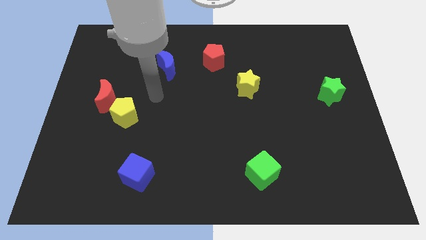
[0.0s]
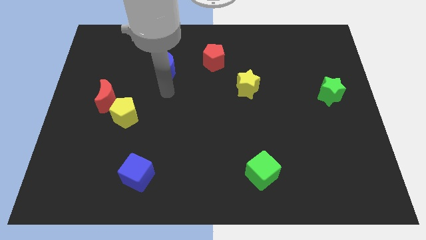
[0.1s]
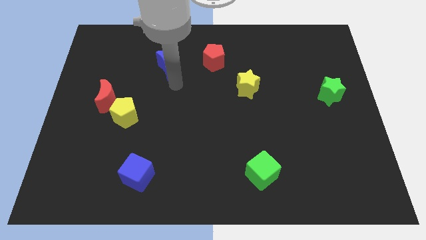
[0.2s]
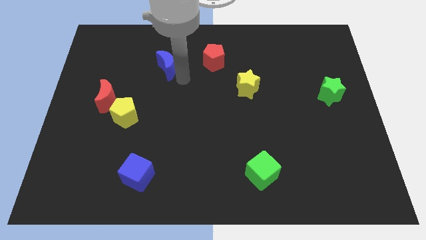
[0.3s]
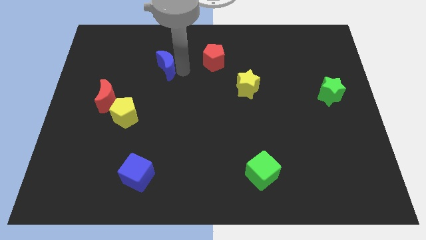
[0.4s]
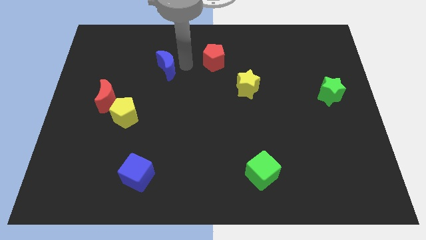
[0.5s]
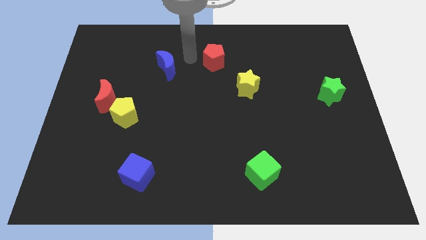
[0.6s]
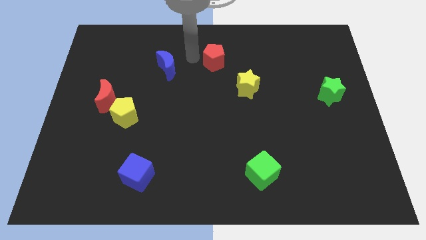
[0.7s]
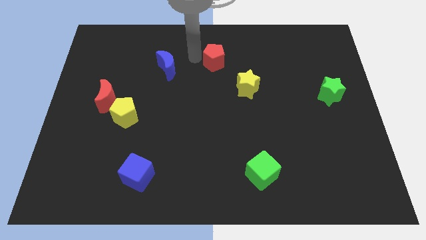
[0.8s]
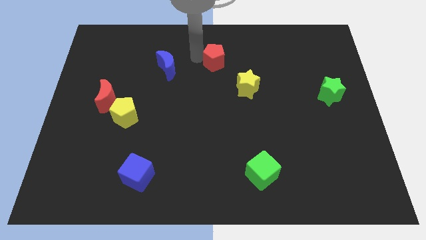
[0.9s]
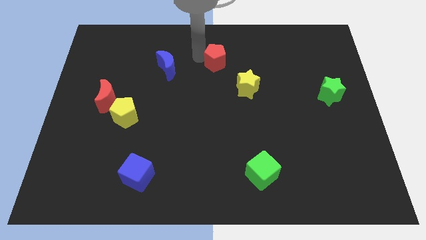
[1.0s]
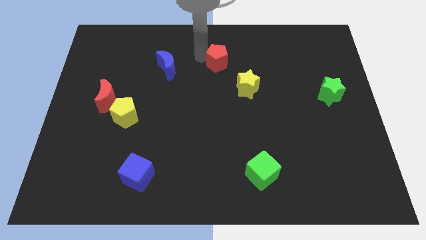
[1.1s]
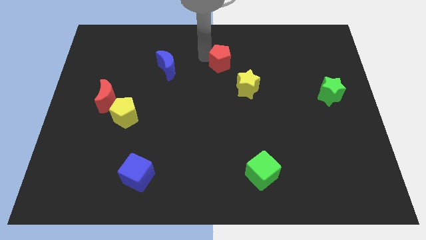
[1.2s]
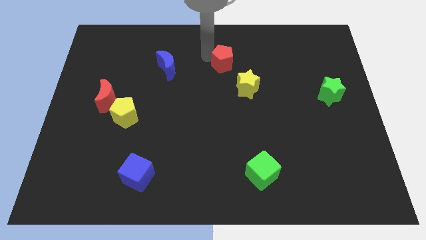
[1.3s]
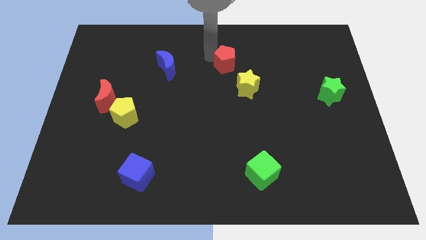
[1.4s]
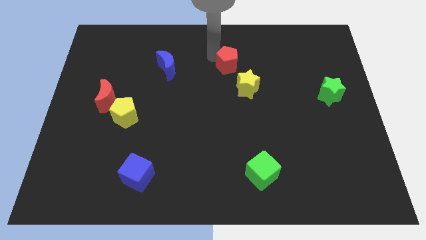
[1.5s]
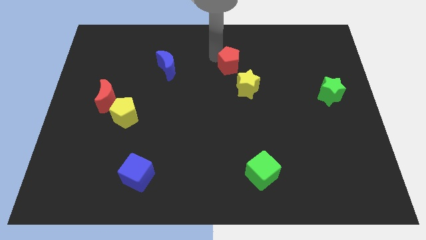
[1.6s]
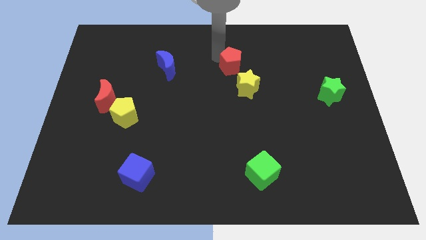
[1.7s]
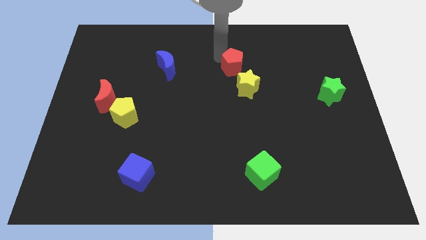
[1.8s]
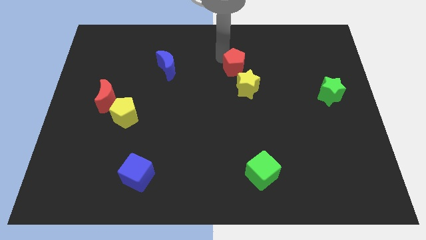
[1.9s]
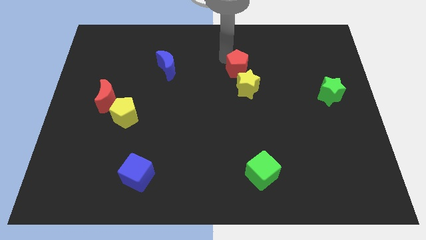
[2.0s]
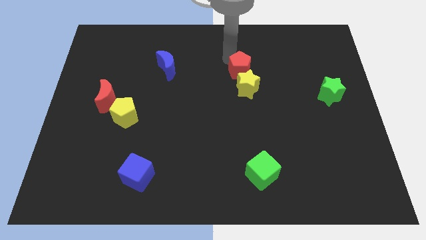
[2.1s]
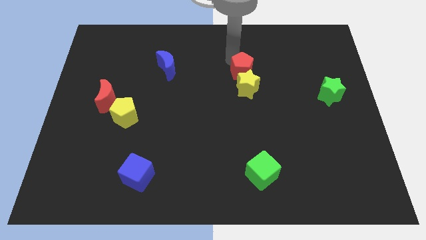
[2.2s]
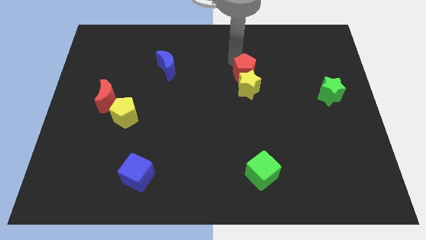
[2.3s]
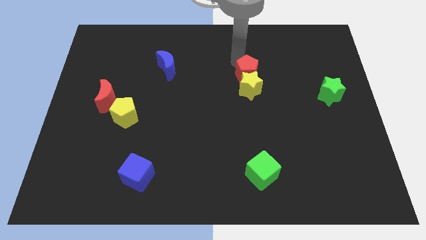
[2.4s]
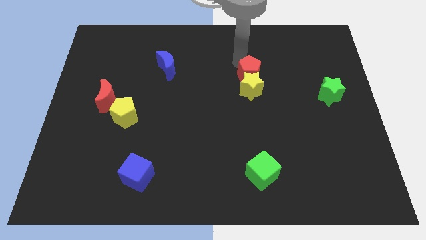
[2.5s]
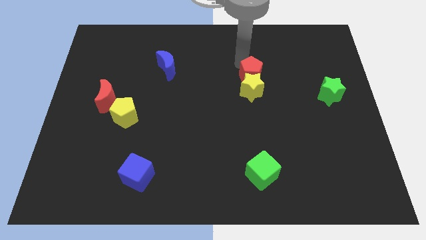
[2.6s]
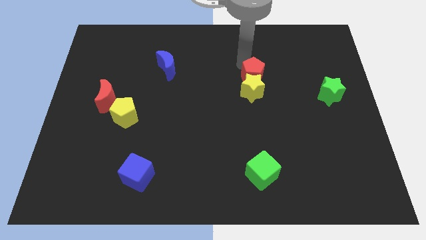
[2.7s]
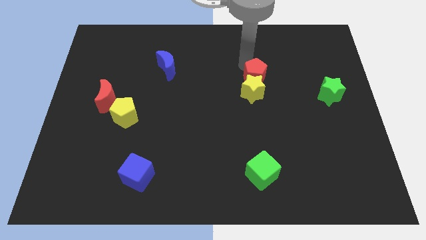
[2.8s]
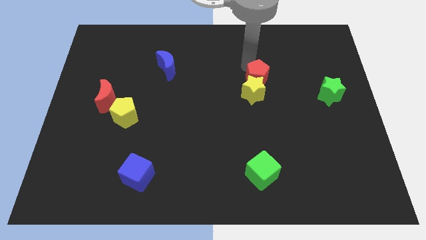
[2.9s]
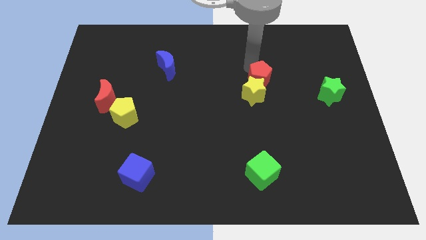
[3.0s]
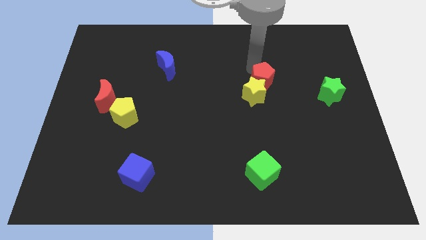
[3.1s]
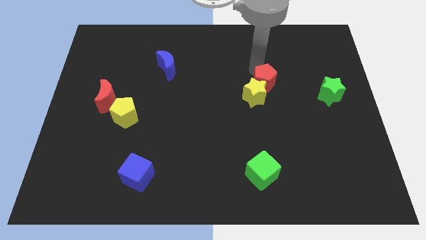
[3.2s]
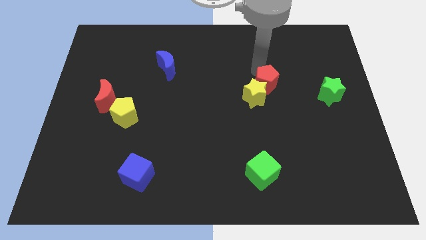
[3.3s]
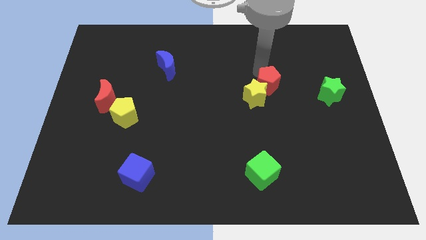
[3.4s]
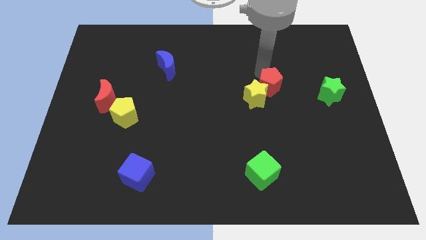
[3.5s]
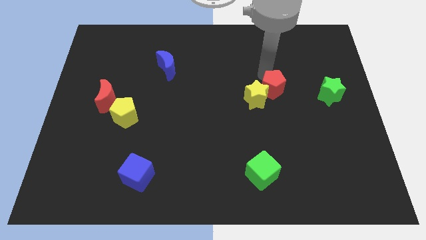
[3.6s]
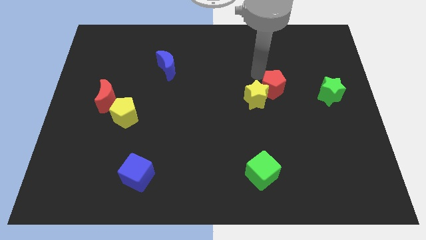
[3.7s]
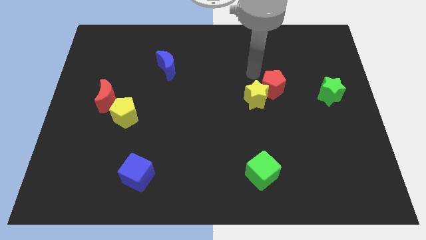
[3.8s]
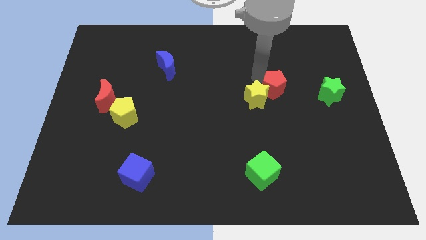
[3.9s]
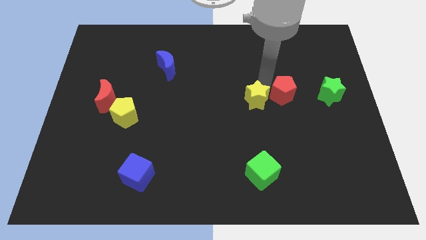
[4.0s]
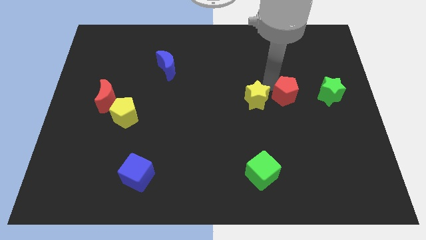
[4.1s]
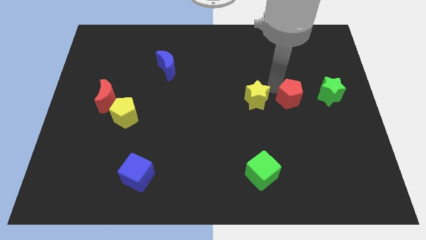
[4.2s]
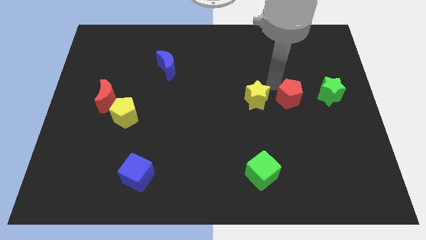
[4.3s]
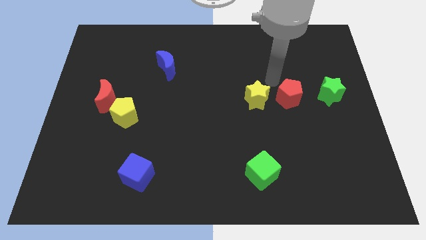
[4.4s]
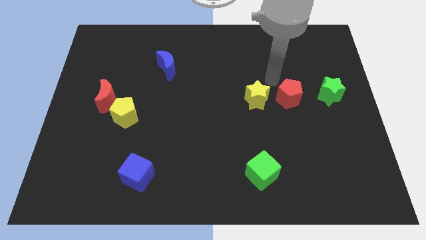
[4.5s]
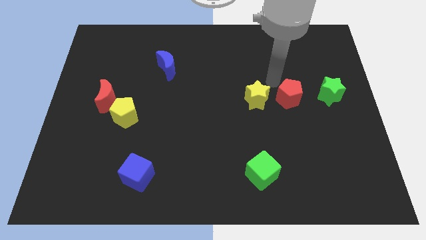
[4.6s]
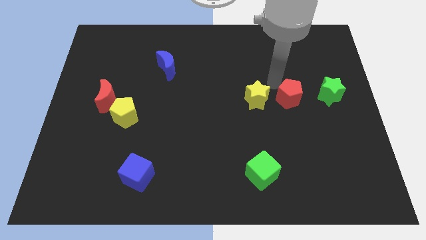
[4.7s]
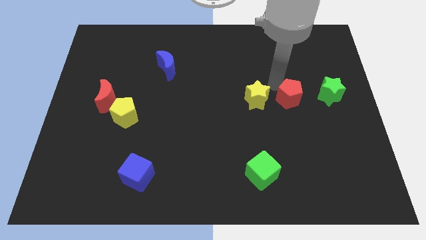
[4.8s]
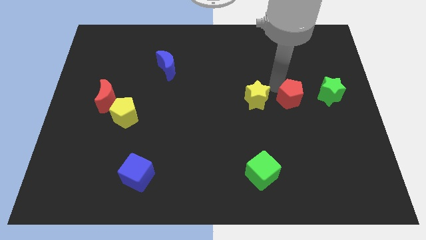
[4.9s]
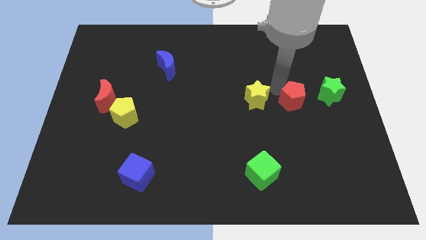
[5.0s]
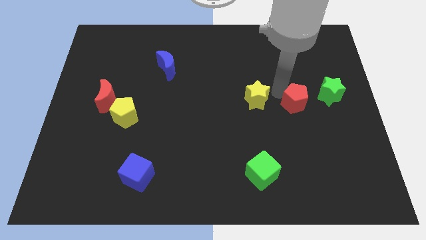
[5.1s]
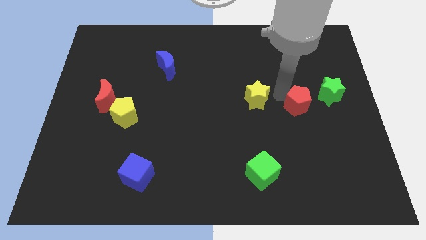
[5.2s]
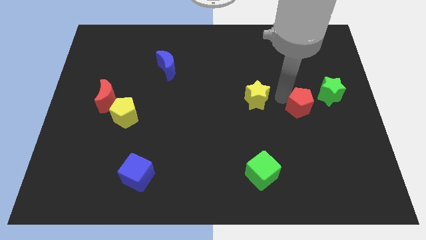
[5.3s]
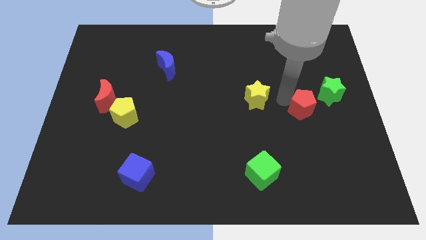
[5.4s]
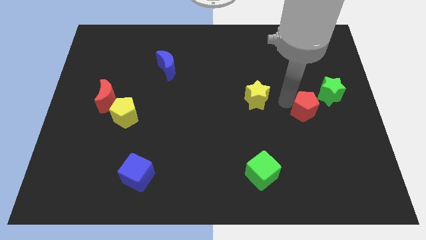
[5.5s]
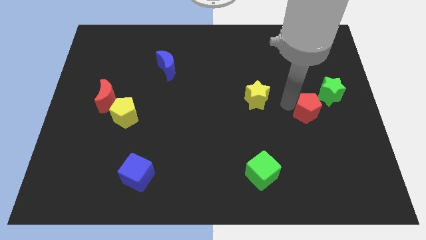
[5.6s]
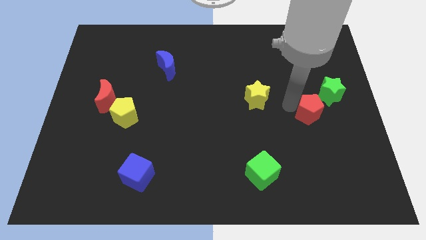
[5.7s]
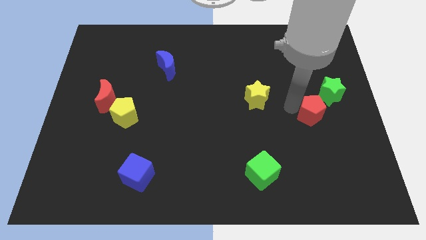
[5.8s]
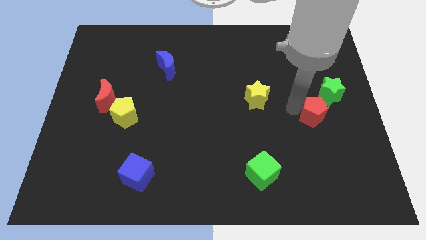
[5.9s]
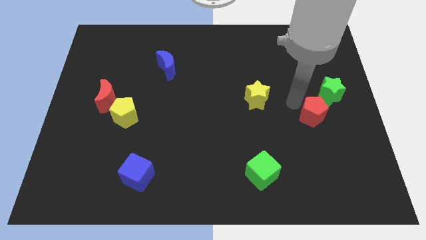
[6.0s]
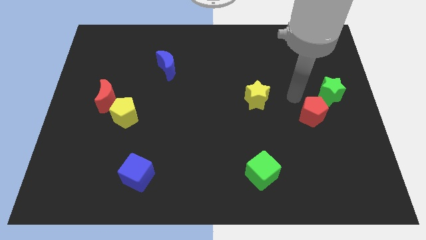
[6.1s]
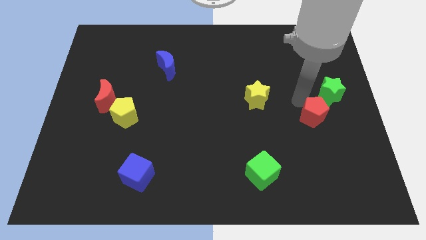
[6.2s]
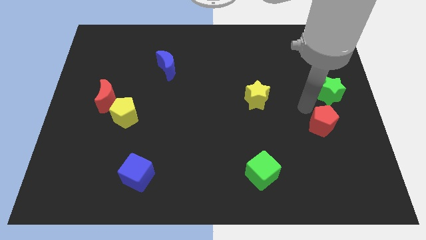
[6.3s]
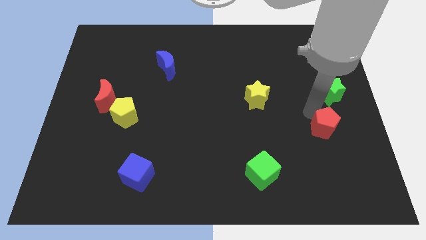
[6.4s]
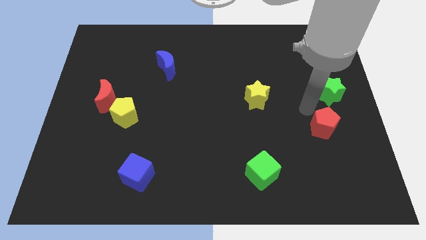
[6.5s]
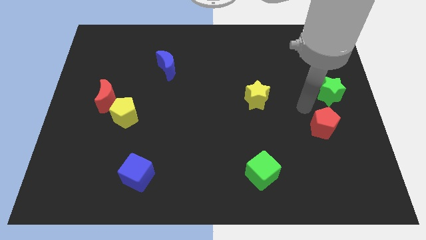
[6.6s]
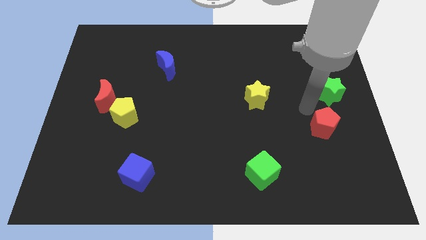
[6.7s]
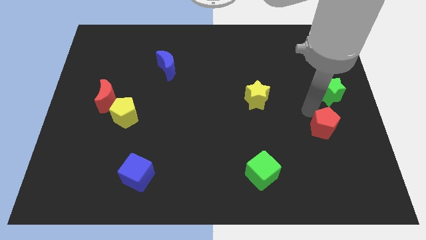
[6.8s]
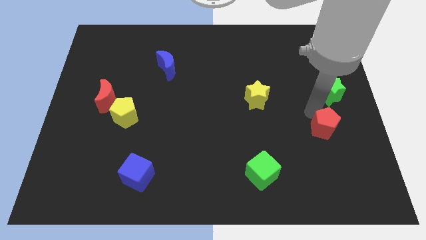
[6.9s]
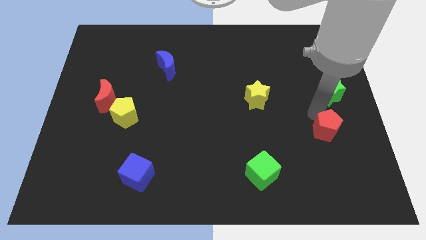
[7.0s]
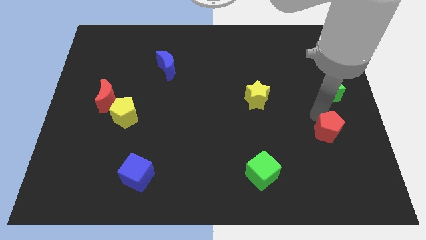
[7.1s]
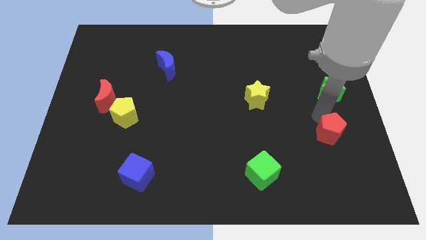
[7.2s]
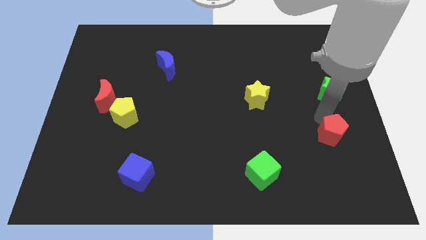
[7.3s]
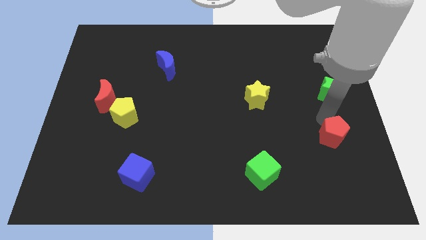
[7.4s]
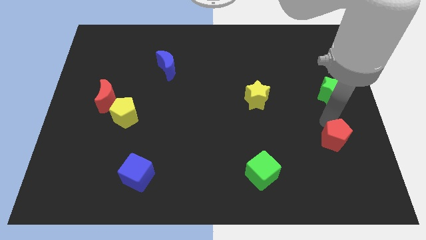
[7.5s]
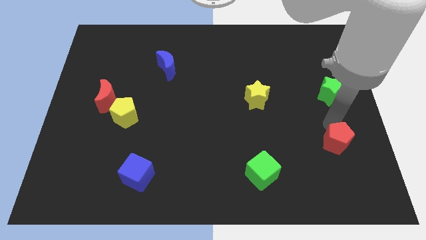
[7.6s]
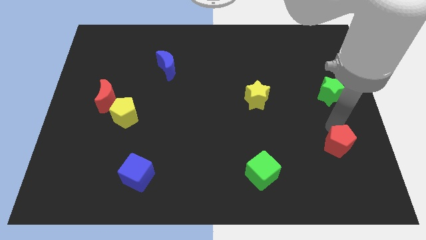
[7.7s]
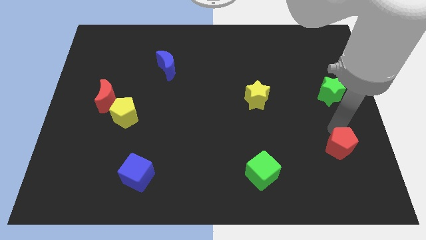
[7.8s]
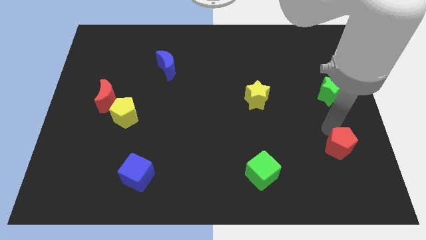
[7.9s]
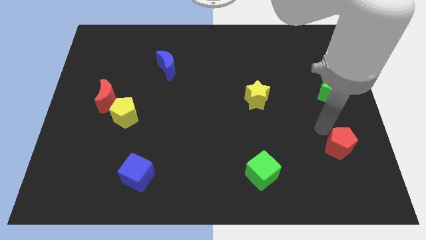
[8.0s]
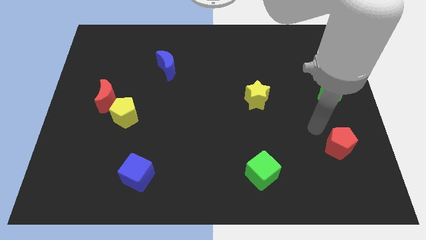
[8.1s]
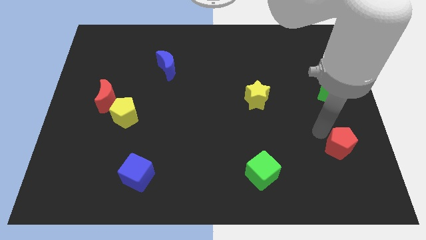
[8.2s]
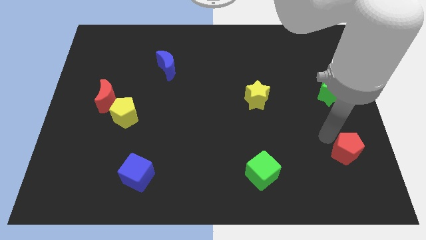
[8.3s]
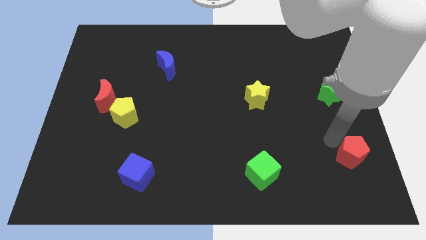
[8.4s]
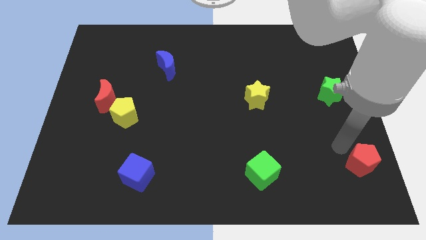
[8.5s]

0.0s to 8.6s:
move the red pentagon to the bottom right of the board
